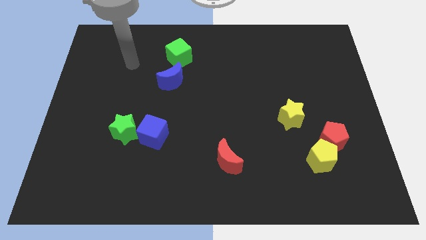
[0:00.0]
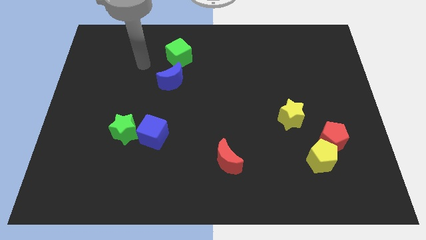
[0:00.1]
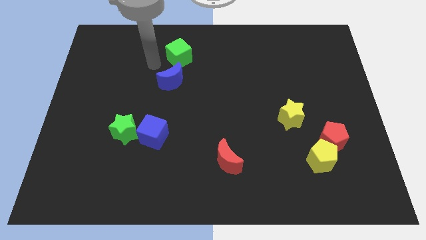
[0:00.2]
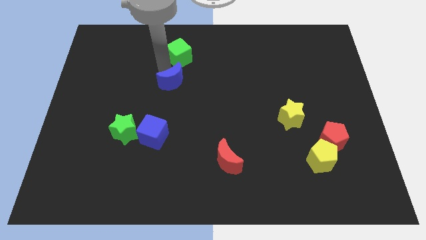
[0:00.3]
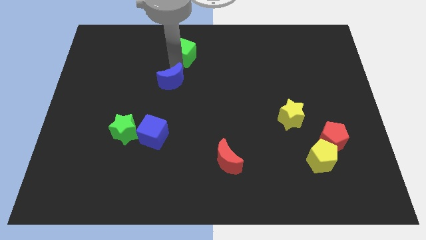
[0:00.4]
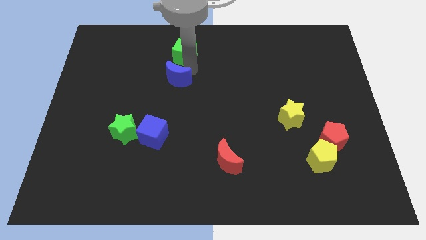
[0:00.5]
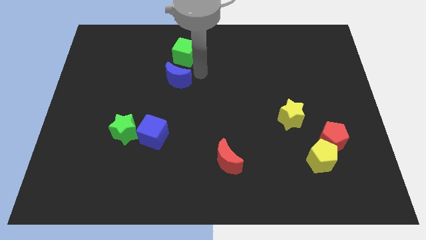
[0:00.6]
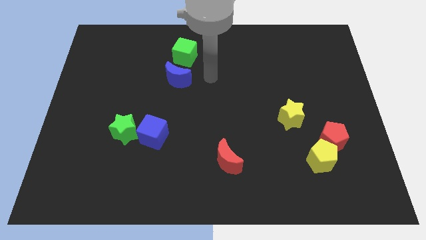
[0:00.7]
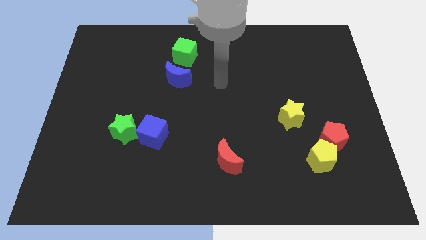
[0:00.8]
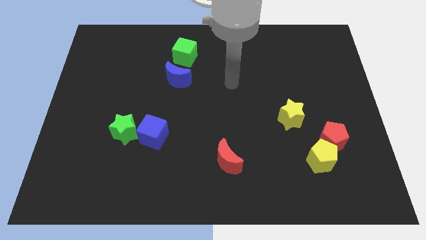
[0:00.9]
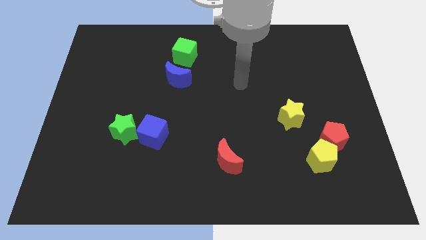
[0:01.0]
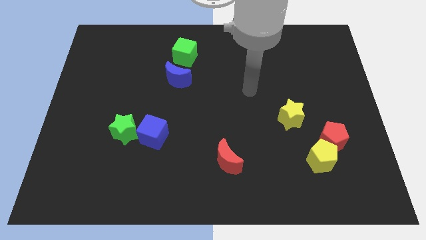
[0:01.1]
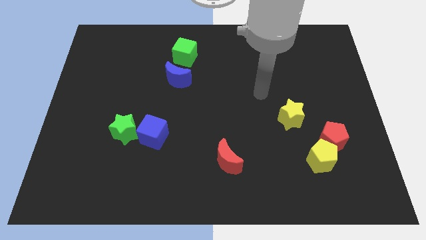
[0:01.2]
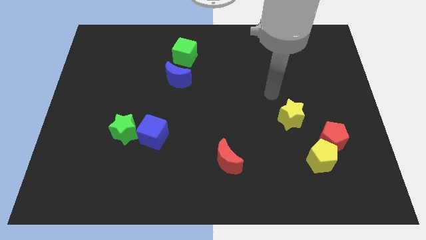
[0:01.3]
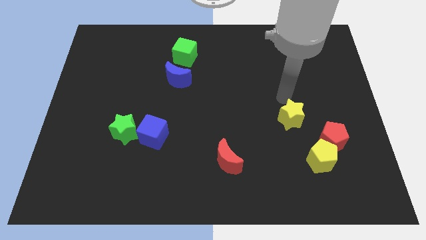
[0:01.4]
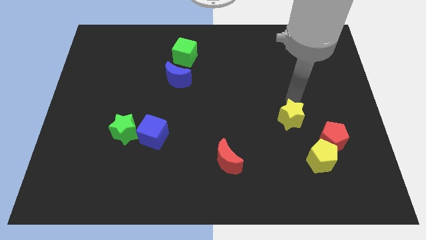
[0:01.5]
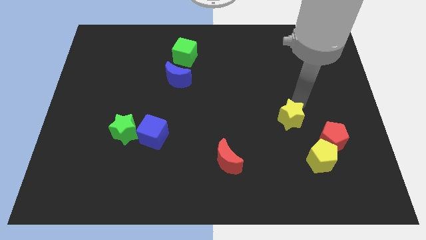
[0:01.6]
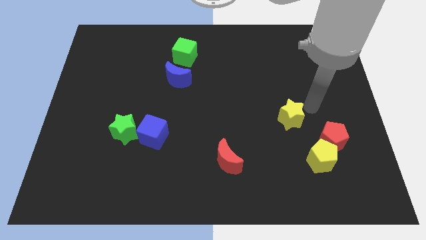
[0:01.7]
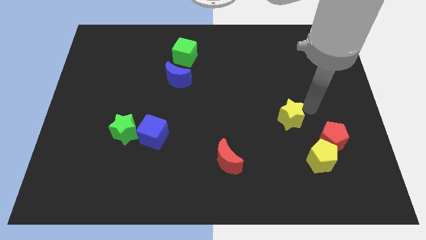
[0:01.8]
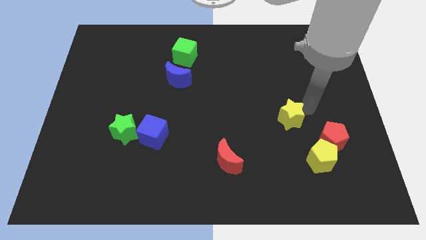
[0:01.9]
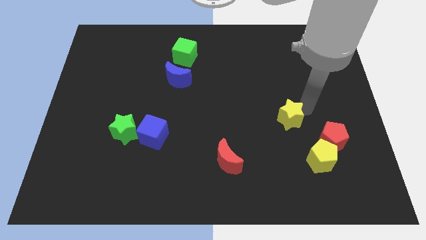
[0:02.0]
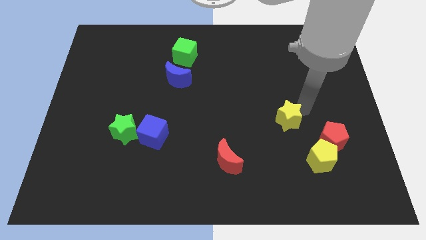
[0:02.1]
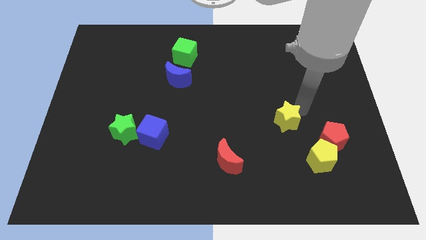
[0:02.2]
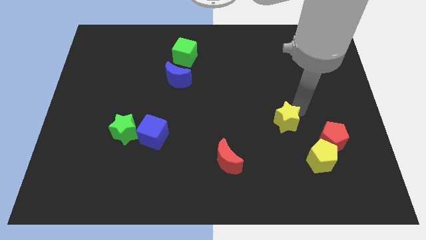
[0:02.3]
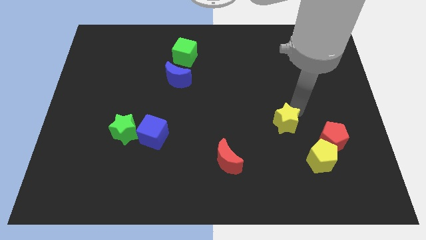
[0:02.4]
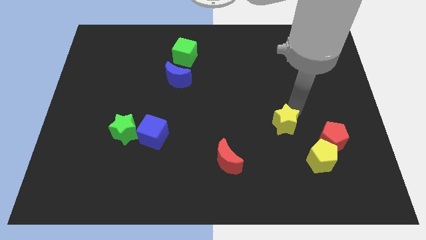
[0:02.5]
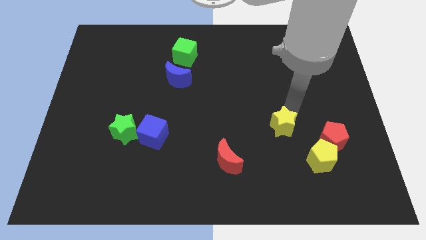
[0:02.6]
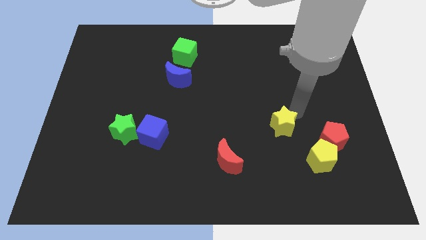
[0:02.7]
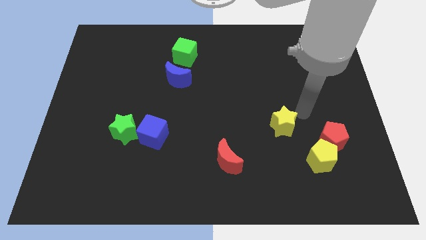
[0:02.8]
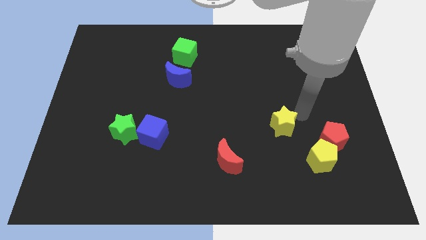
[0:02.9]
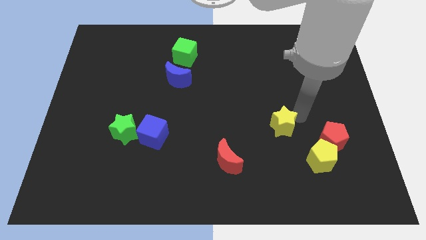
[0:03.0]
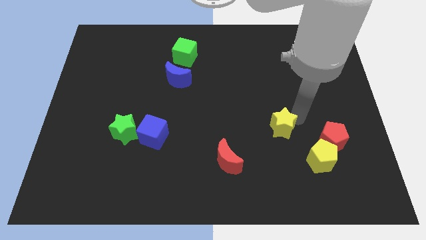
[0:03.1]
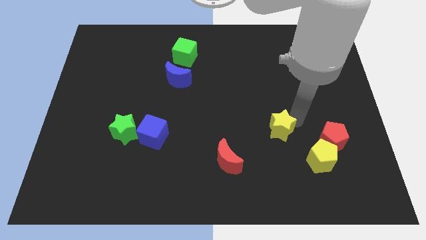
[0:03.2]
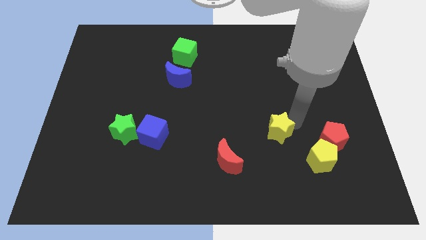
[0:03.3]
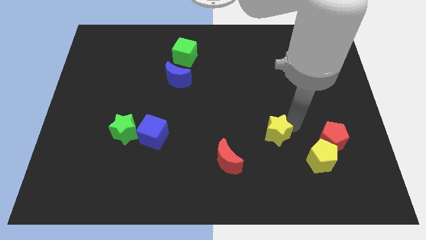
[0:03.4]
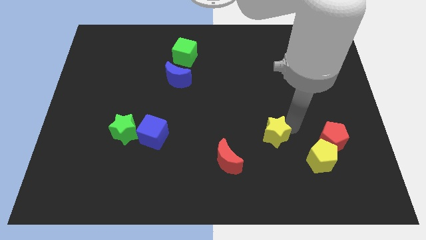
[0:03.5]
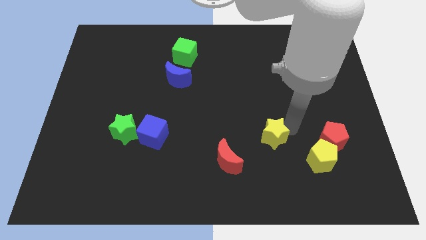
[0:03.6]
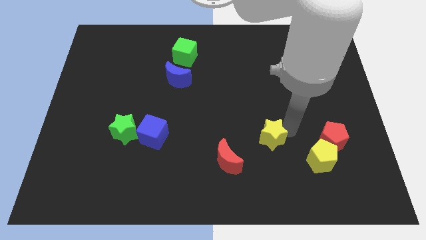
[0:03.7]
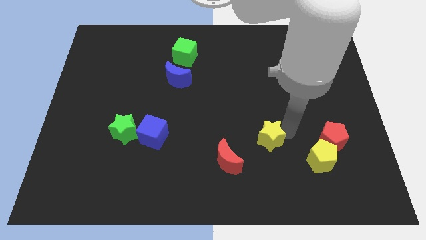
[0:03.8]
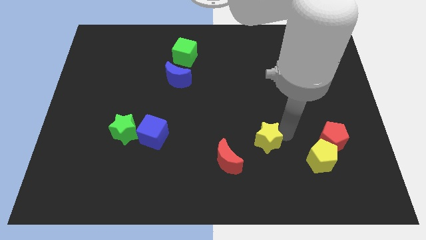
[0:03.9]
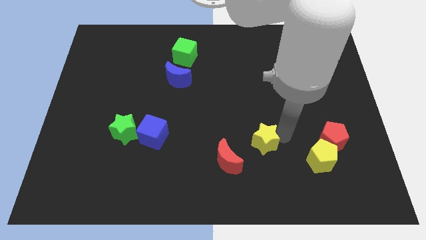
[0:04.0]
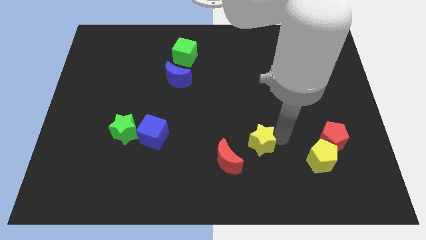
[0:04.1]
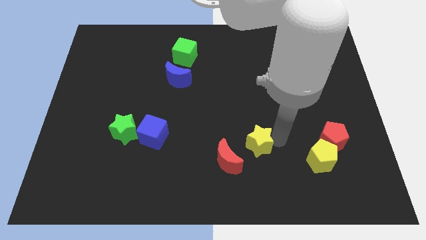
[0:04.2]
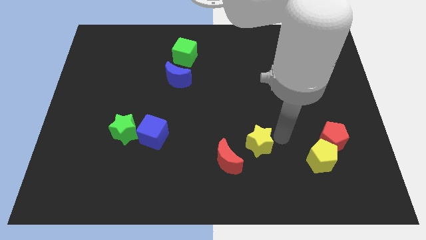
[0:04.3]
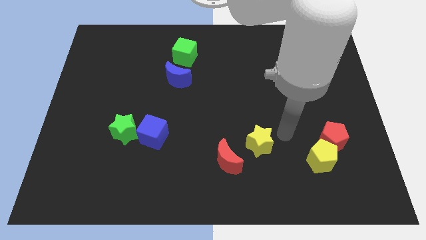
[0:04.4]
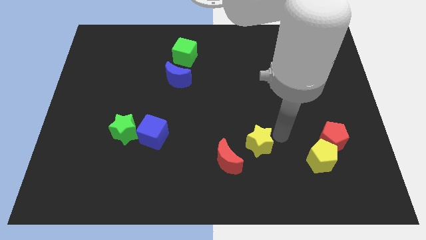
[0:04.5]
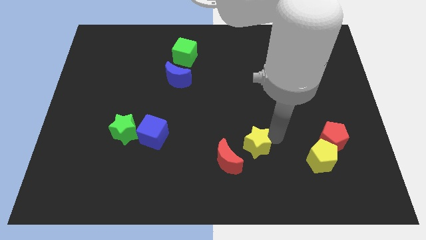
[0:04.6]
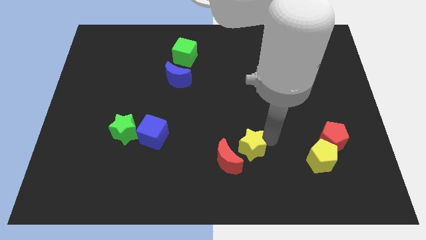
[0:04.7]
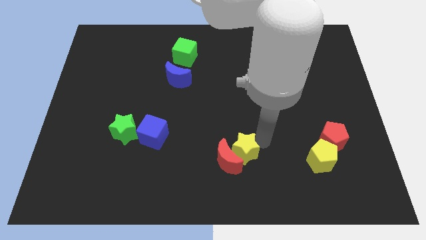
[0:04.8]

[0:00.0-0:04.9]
slide the yellow star to the red moon

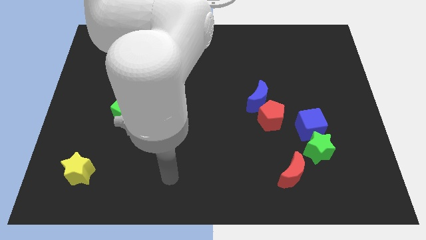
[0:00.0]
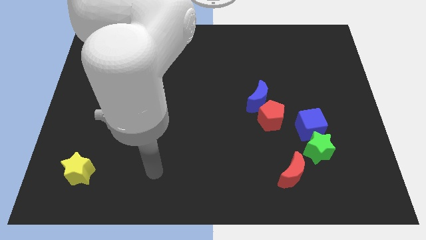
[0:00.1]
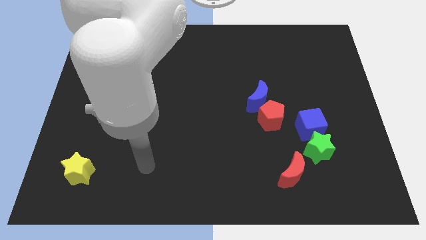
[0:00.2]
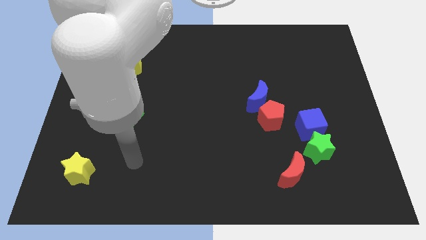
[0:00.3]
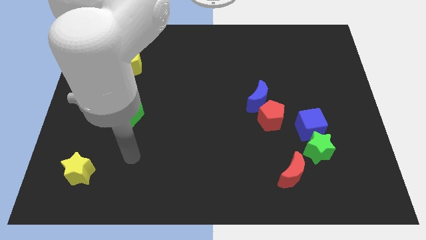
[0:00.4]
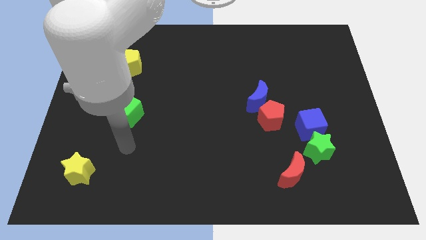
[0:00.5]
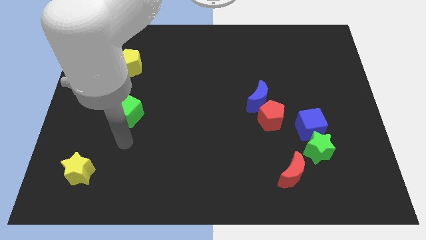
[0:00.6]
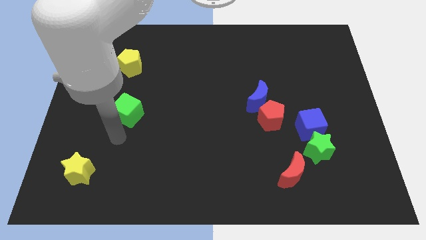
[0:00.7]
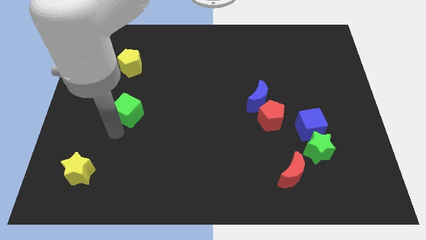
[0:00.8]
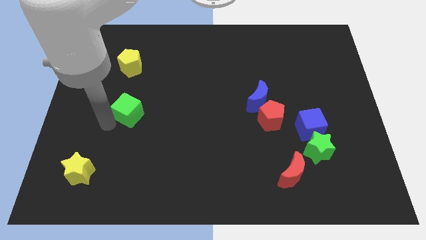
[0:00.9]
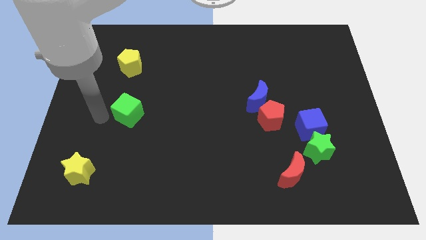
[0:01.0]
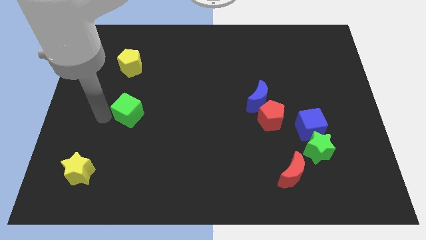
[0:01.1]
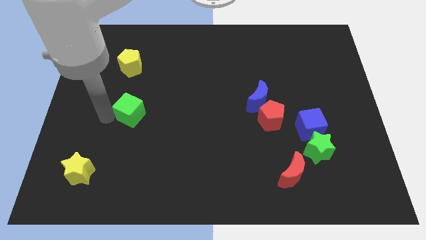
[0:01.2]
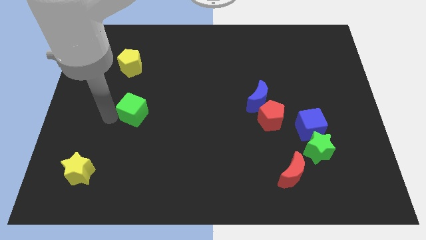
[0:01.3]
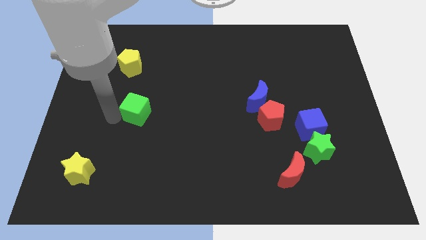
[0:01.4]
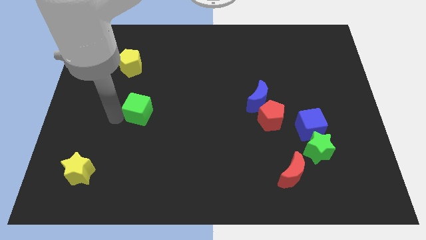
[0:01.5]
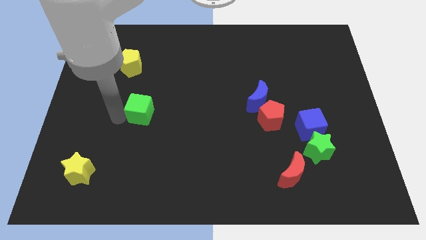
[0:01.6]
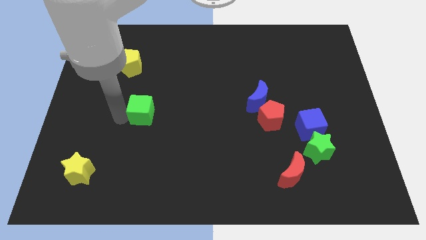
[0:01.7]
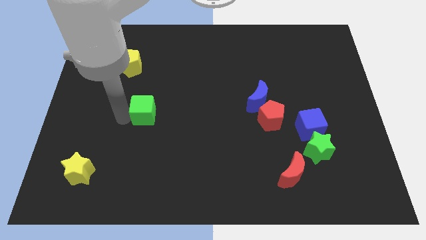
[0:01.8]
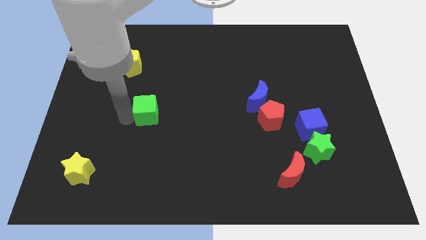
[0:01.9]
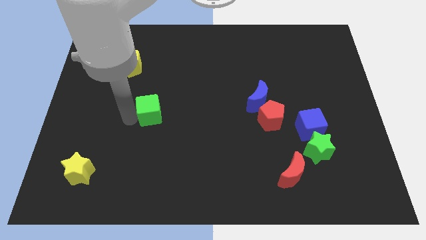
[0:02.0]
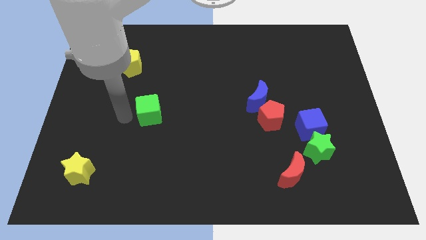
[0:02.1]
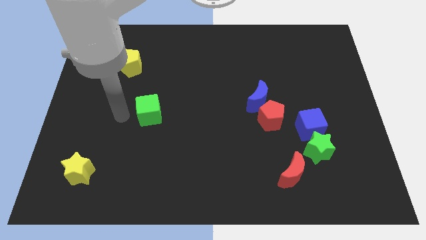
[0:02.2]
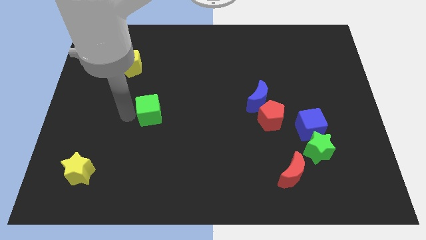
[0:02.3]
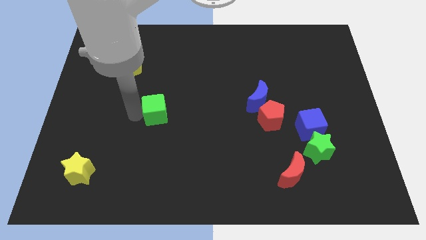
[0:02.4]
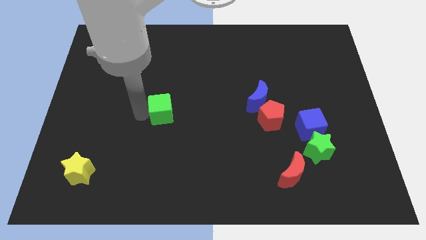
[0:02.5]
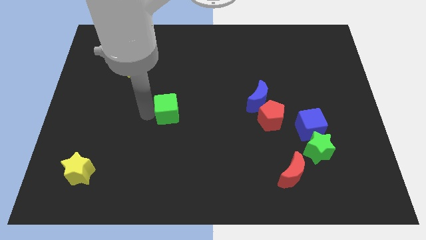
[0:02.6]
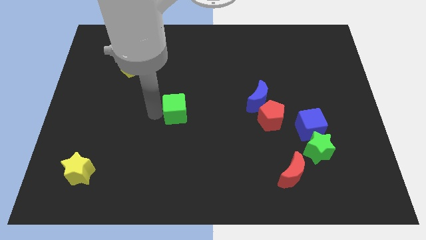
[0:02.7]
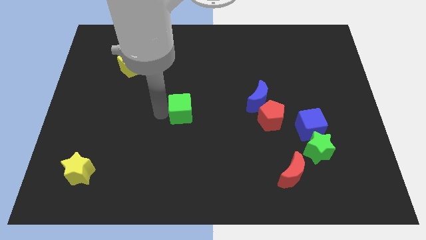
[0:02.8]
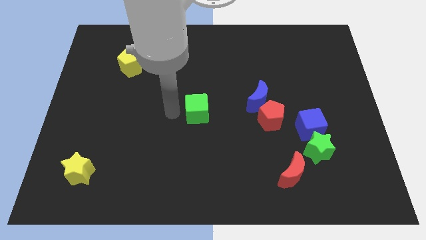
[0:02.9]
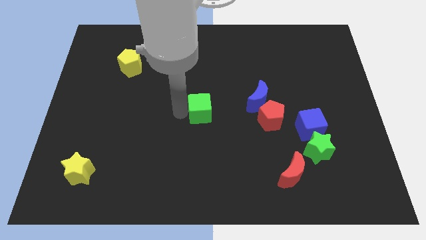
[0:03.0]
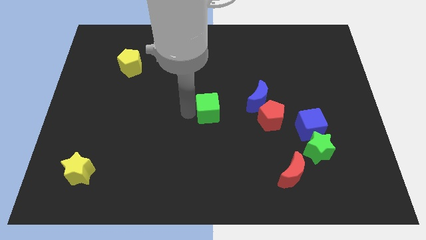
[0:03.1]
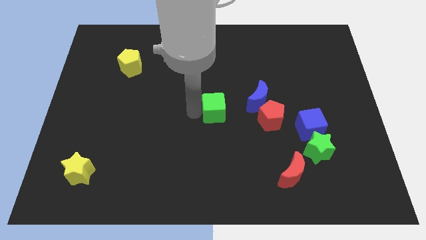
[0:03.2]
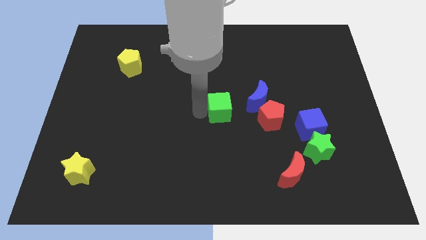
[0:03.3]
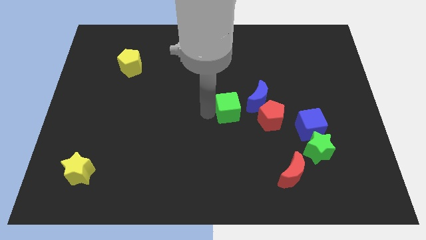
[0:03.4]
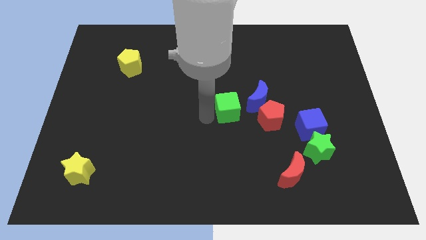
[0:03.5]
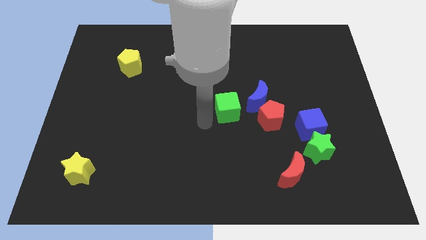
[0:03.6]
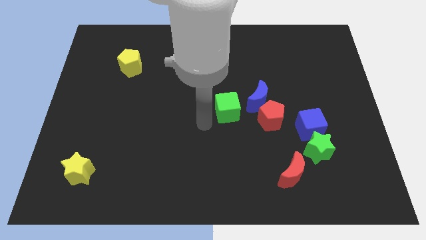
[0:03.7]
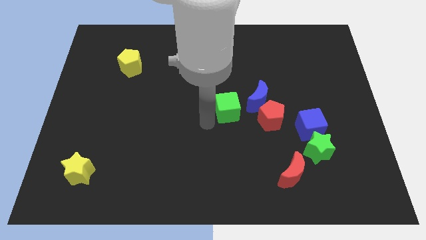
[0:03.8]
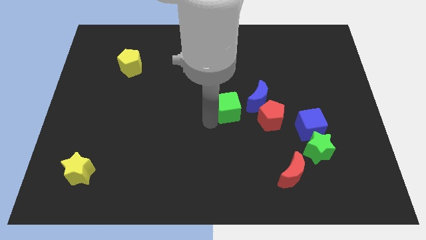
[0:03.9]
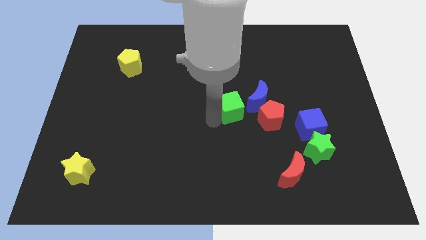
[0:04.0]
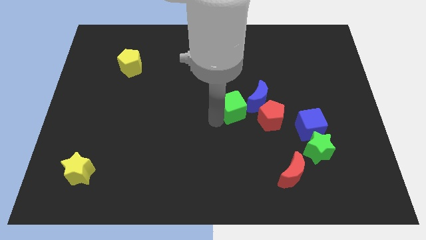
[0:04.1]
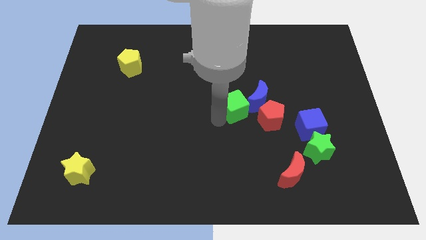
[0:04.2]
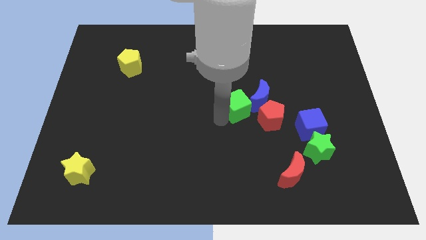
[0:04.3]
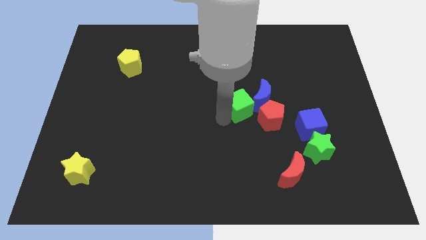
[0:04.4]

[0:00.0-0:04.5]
slide the green cube next to the blue moon
